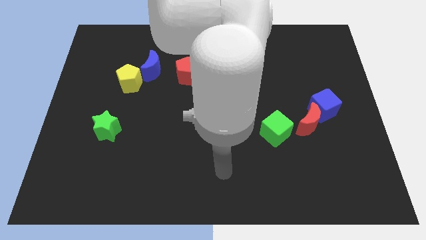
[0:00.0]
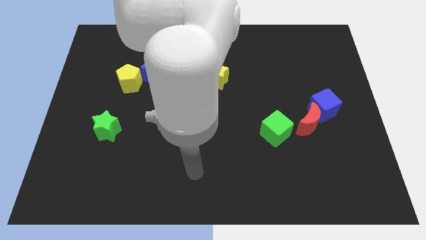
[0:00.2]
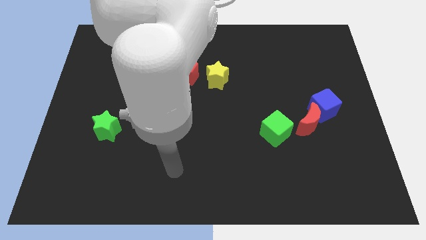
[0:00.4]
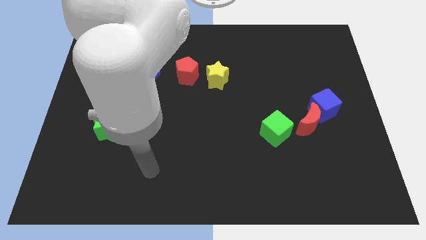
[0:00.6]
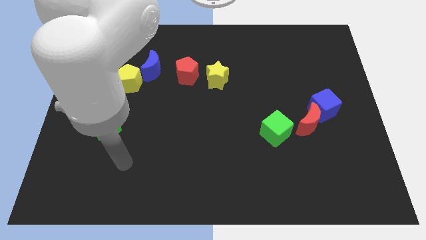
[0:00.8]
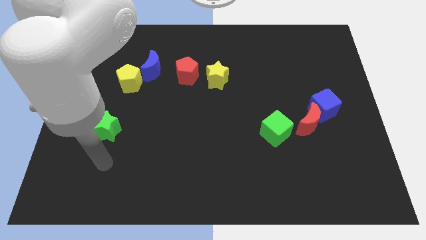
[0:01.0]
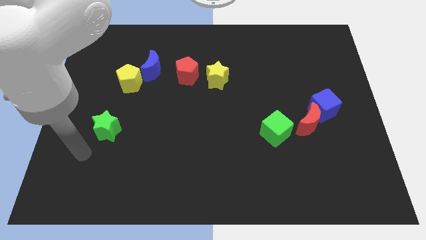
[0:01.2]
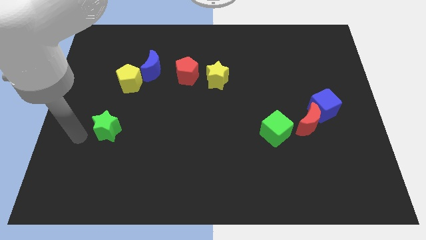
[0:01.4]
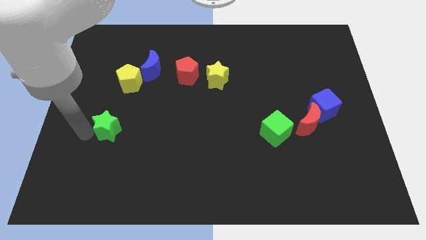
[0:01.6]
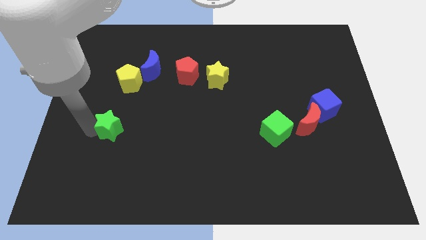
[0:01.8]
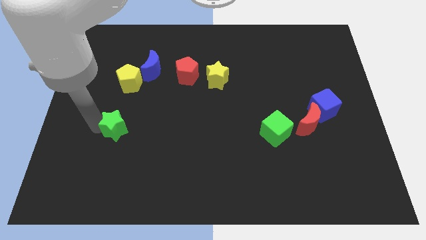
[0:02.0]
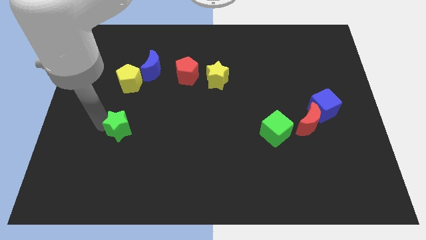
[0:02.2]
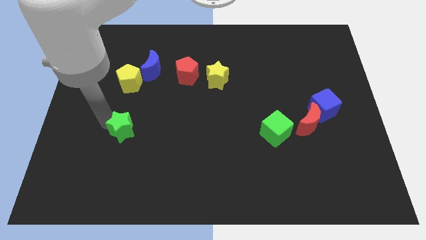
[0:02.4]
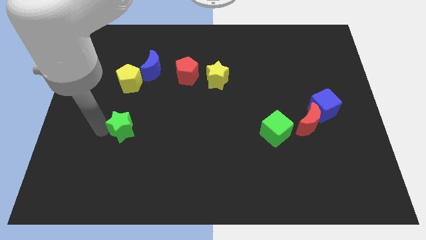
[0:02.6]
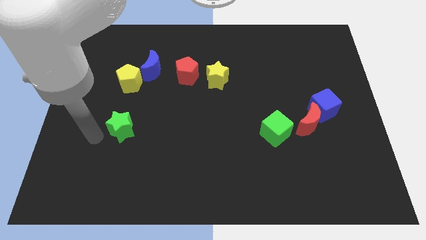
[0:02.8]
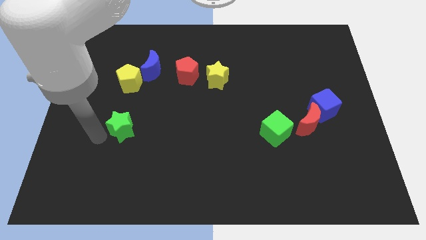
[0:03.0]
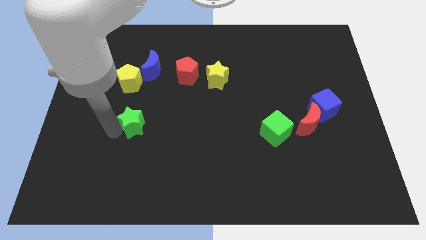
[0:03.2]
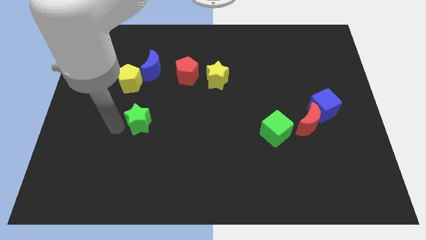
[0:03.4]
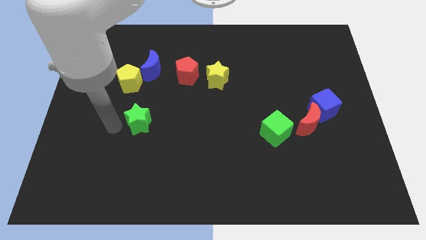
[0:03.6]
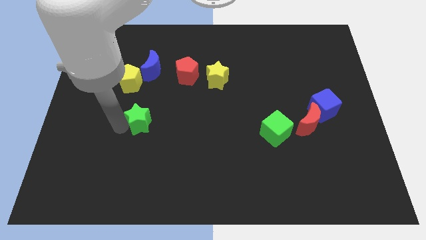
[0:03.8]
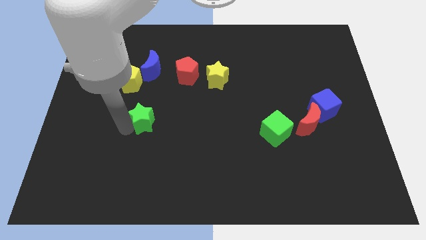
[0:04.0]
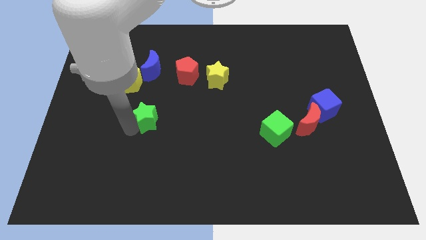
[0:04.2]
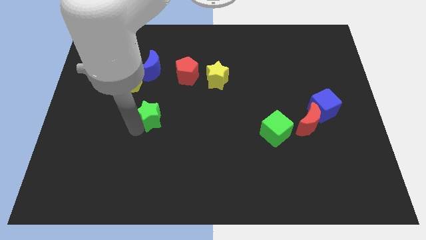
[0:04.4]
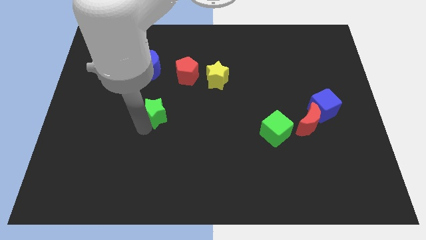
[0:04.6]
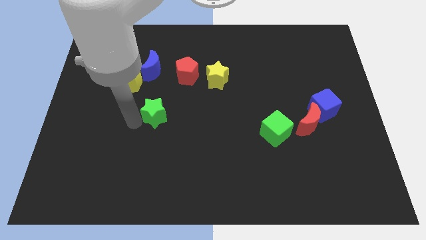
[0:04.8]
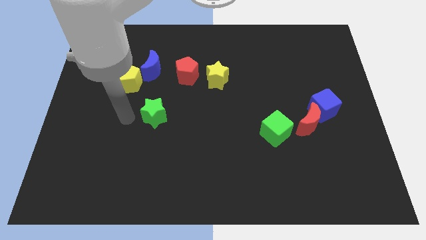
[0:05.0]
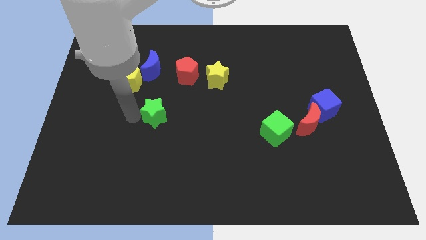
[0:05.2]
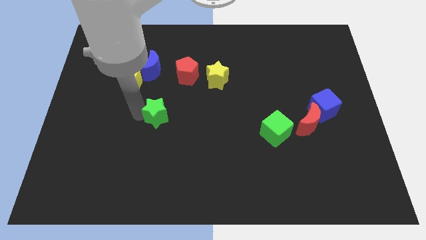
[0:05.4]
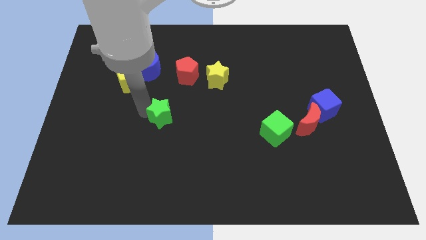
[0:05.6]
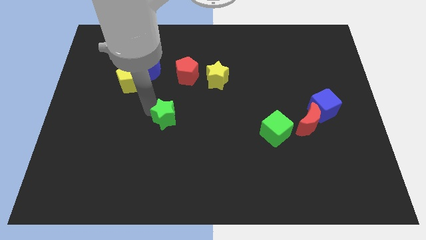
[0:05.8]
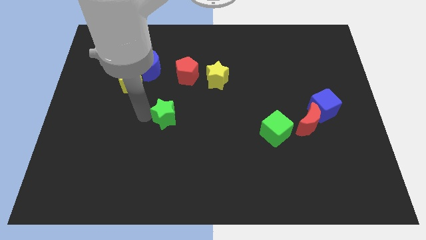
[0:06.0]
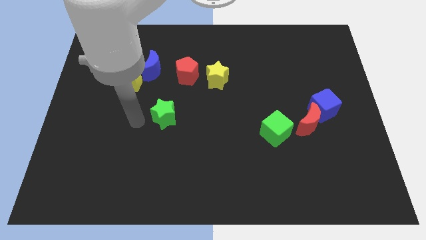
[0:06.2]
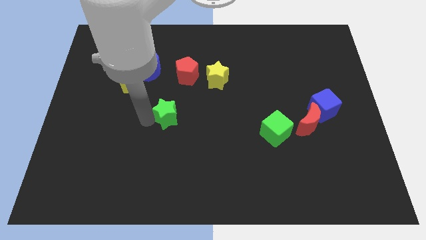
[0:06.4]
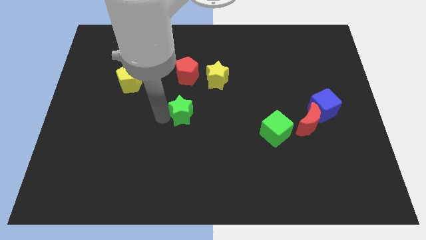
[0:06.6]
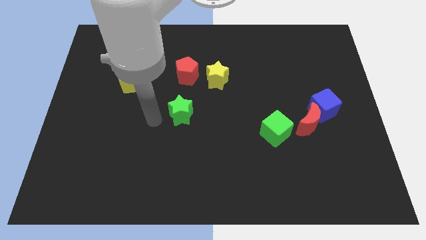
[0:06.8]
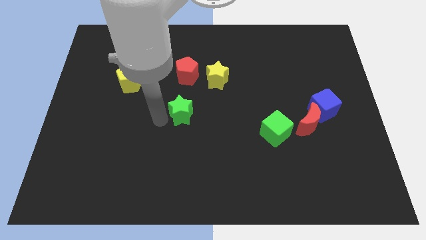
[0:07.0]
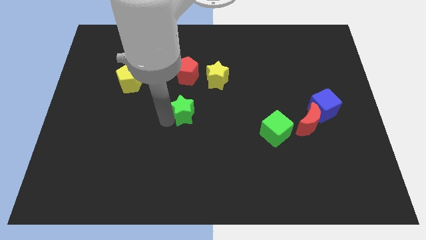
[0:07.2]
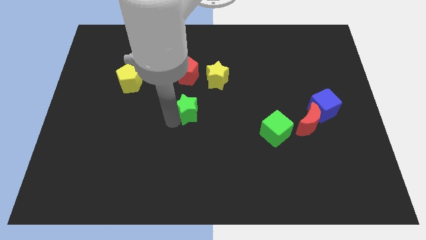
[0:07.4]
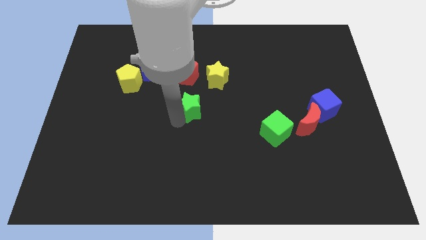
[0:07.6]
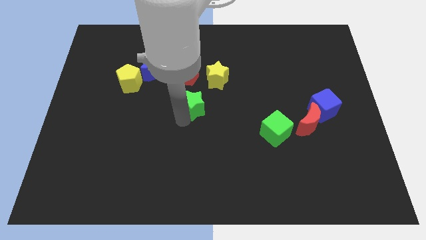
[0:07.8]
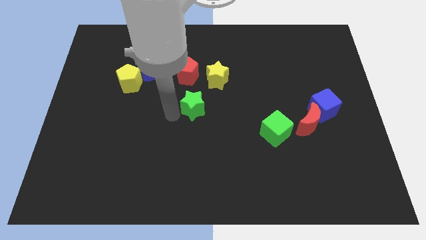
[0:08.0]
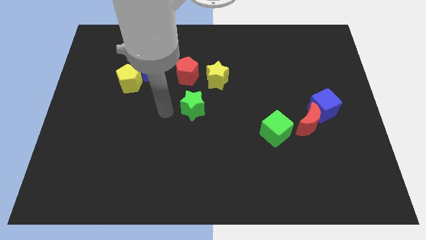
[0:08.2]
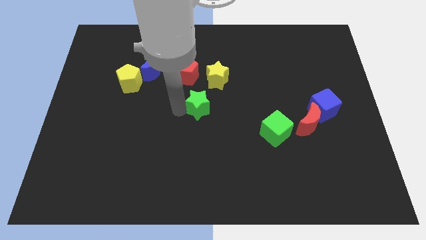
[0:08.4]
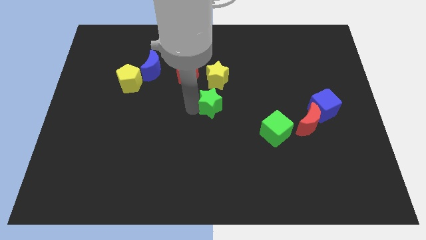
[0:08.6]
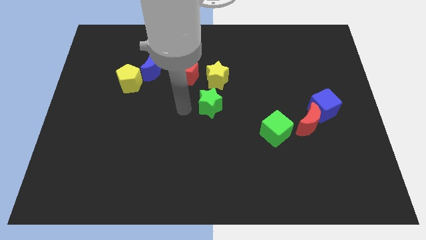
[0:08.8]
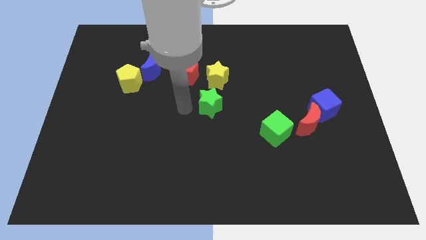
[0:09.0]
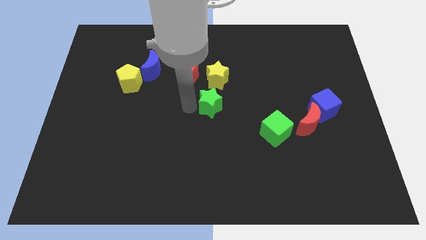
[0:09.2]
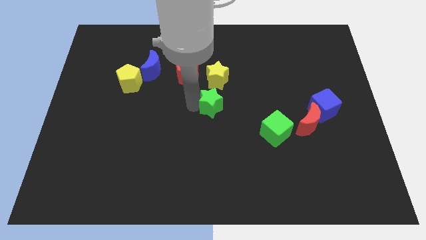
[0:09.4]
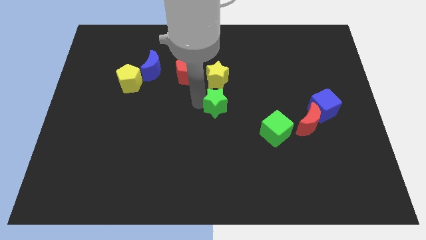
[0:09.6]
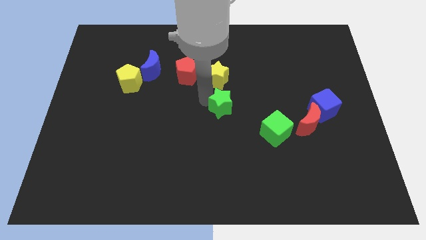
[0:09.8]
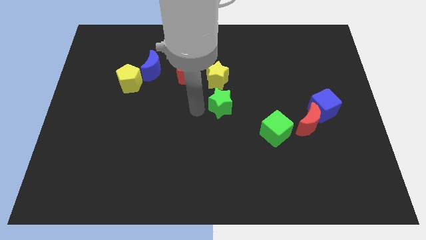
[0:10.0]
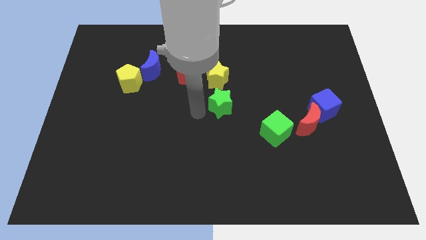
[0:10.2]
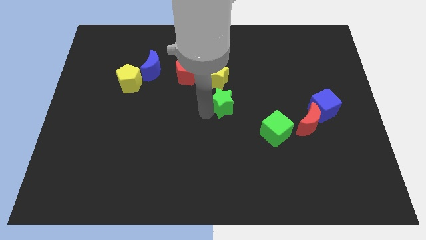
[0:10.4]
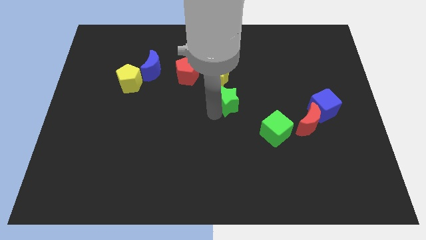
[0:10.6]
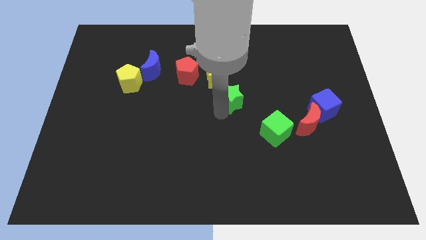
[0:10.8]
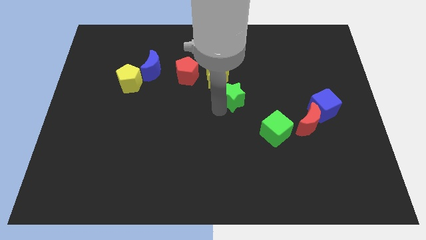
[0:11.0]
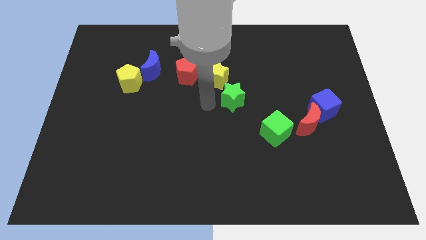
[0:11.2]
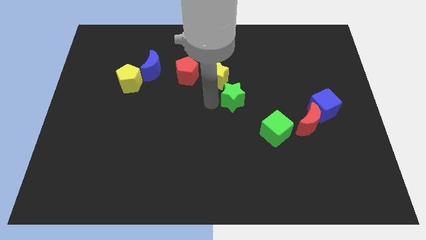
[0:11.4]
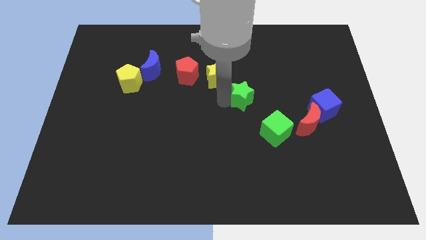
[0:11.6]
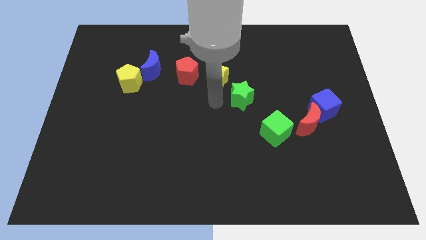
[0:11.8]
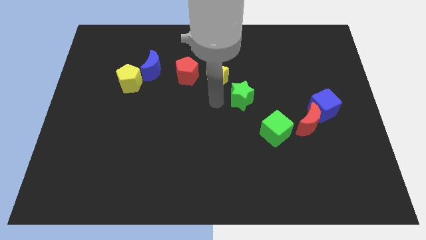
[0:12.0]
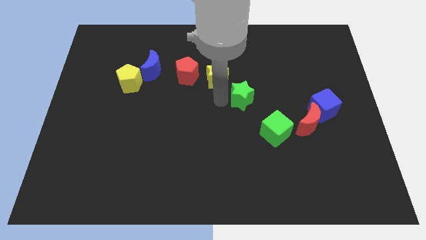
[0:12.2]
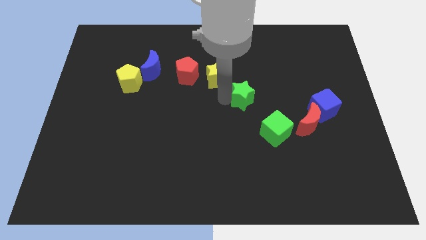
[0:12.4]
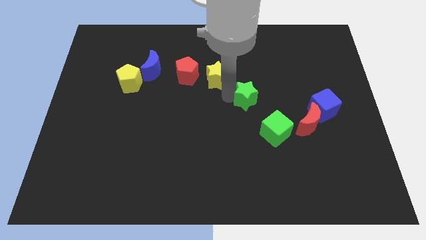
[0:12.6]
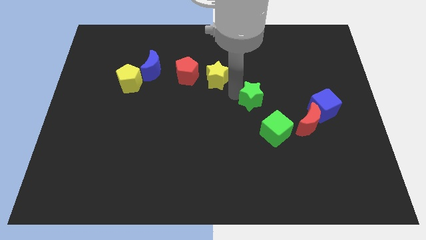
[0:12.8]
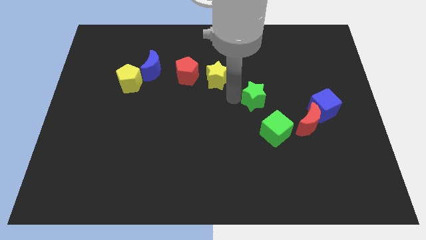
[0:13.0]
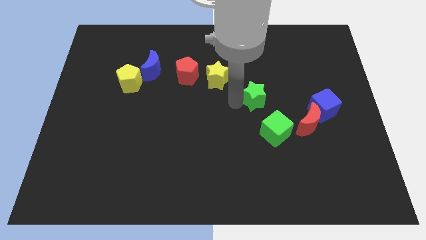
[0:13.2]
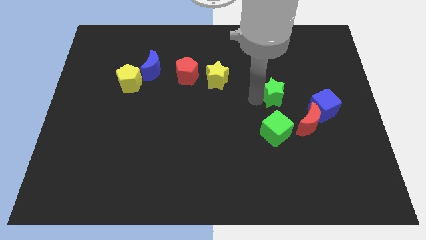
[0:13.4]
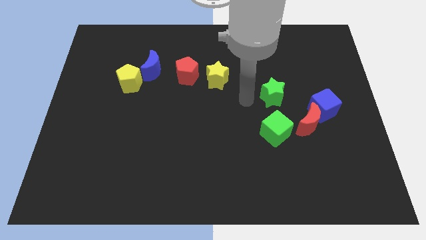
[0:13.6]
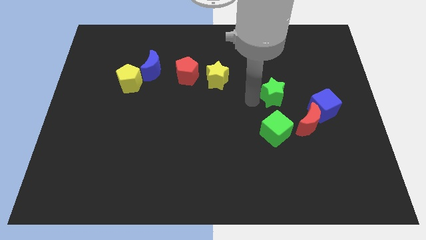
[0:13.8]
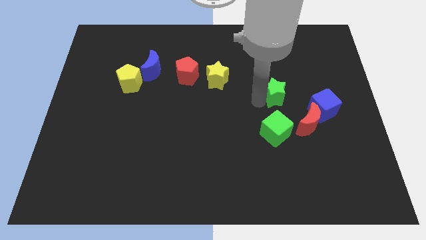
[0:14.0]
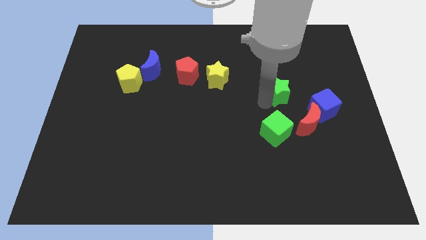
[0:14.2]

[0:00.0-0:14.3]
move the green star diagonally up and to the left of the blue cube
